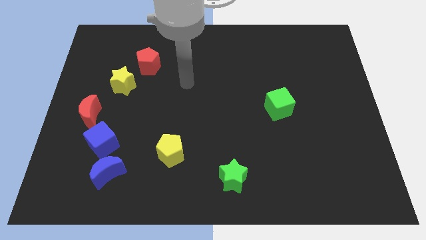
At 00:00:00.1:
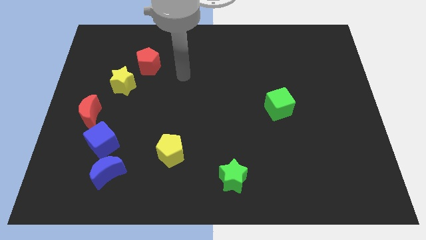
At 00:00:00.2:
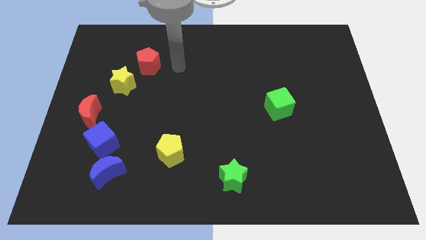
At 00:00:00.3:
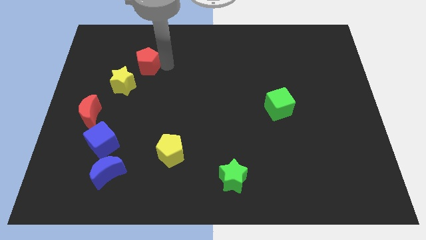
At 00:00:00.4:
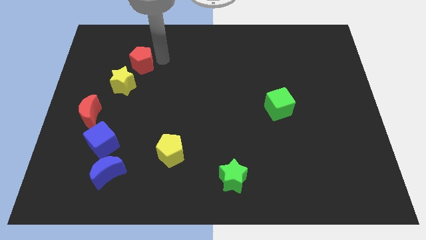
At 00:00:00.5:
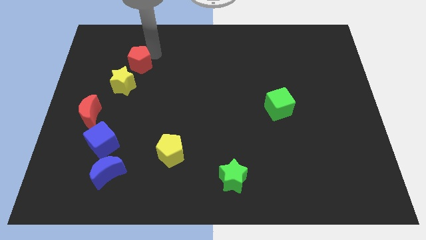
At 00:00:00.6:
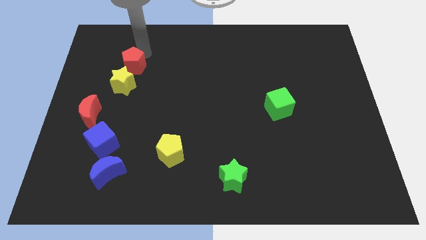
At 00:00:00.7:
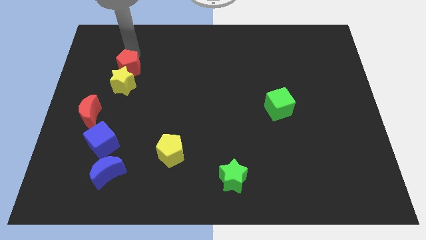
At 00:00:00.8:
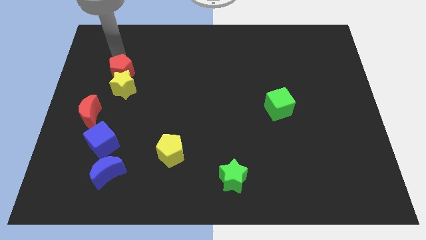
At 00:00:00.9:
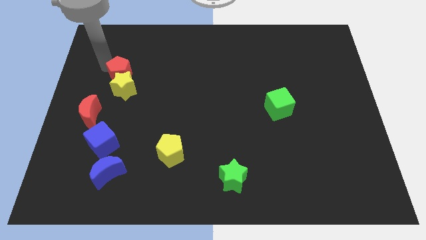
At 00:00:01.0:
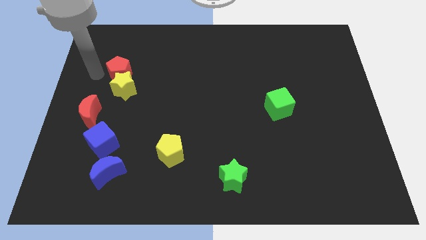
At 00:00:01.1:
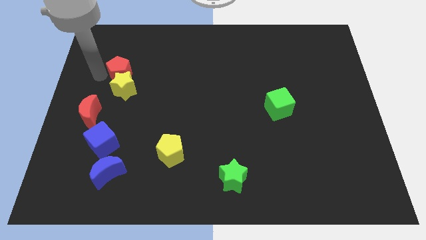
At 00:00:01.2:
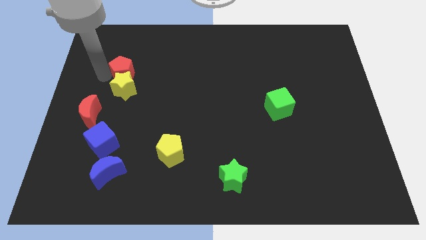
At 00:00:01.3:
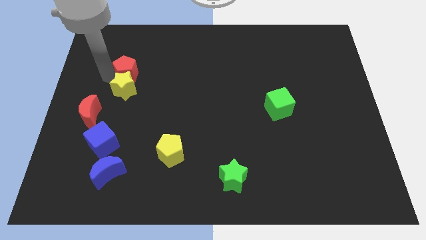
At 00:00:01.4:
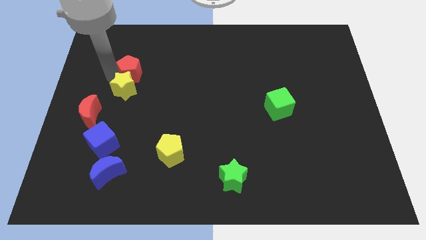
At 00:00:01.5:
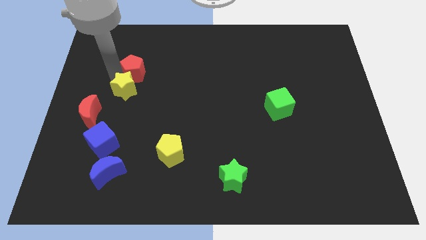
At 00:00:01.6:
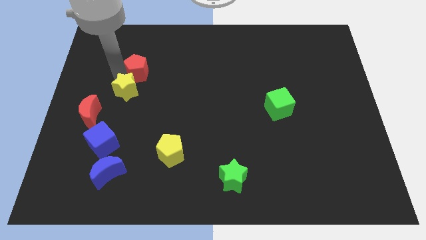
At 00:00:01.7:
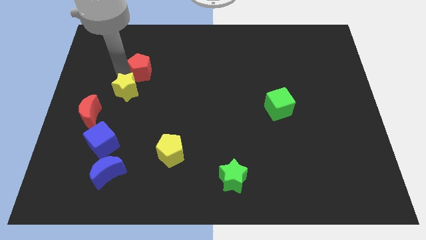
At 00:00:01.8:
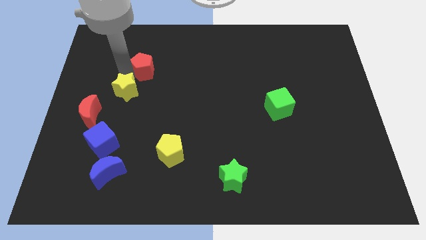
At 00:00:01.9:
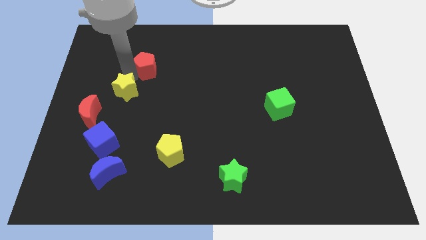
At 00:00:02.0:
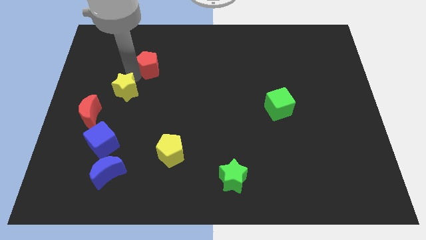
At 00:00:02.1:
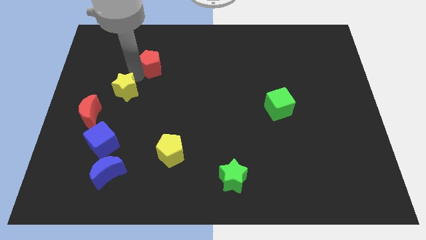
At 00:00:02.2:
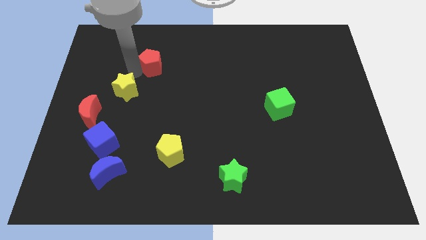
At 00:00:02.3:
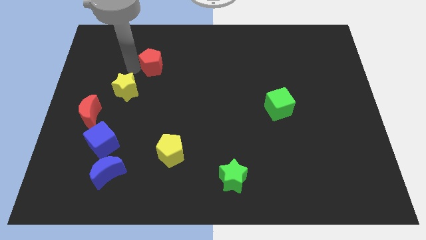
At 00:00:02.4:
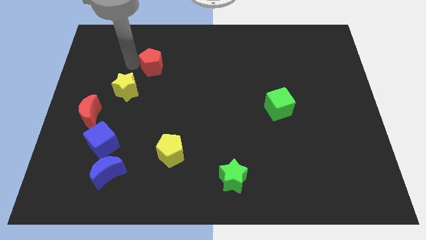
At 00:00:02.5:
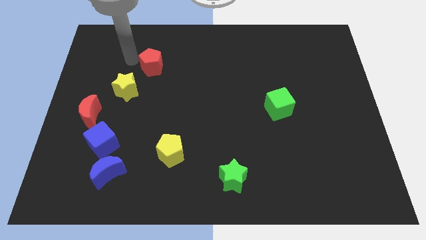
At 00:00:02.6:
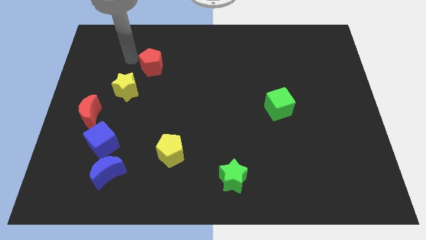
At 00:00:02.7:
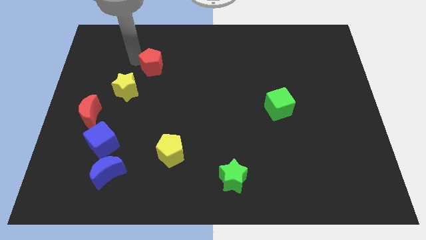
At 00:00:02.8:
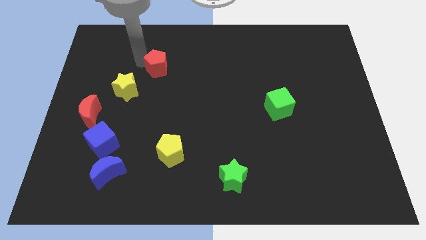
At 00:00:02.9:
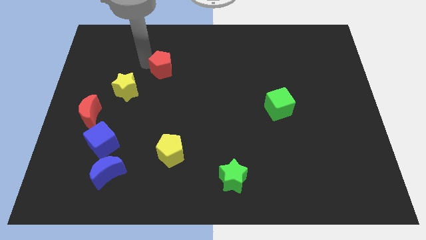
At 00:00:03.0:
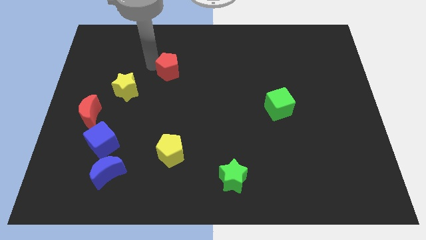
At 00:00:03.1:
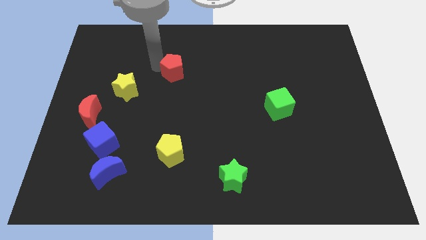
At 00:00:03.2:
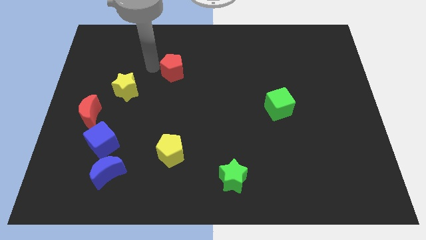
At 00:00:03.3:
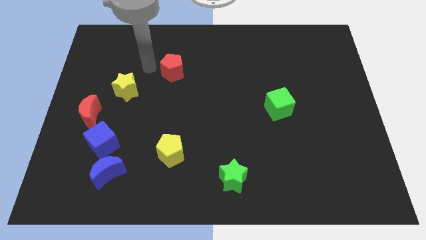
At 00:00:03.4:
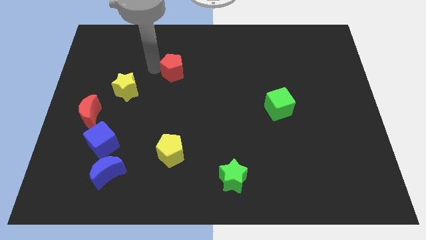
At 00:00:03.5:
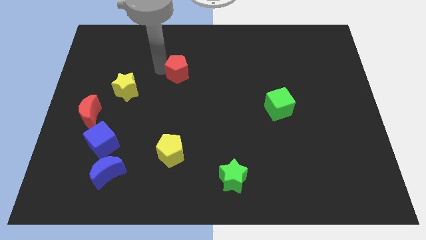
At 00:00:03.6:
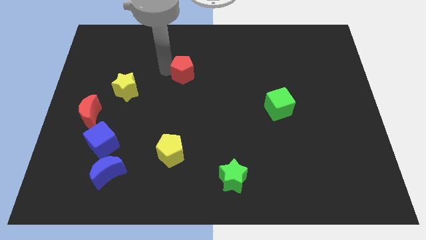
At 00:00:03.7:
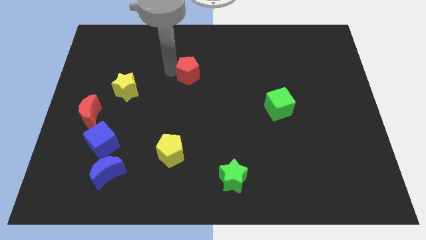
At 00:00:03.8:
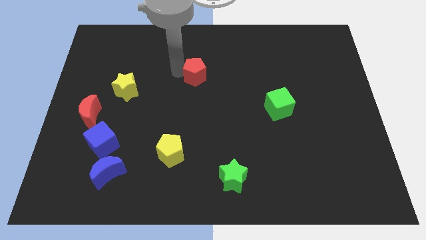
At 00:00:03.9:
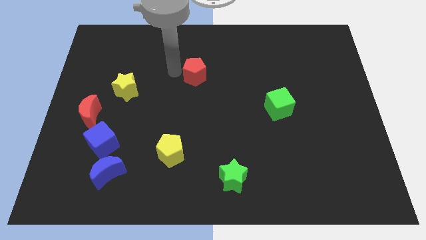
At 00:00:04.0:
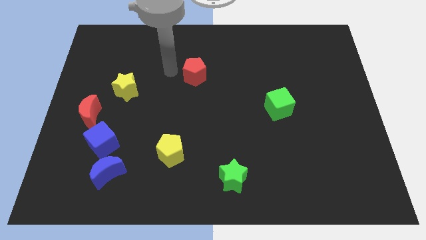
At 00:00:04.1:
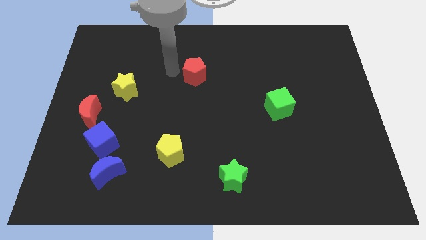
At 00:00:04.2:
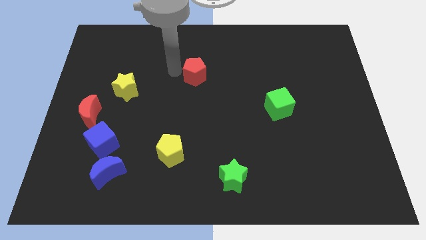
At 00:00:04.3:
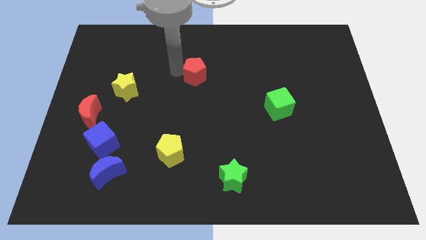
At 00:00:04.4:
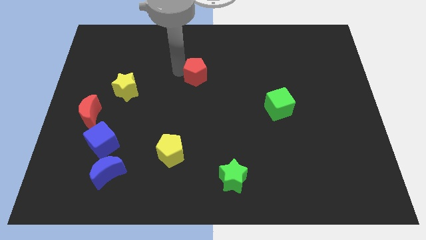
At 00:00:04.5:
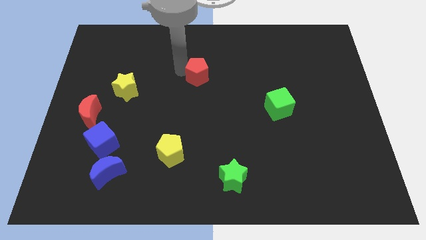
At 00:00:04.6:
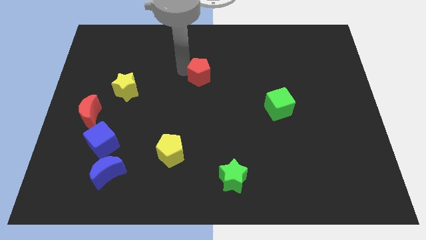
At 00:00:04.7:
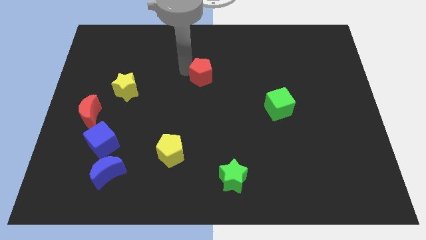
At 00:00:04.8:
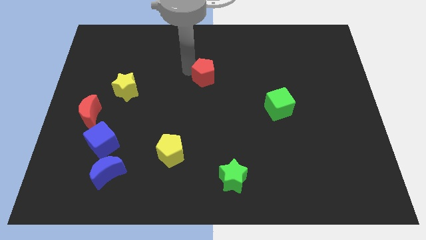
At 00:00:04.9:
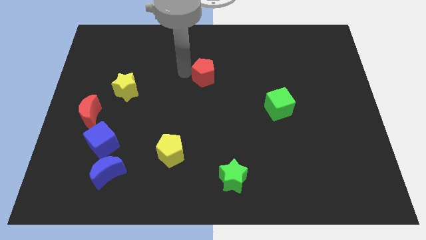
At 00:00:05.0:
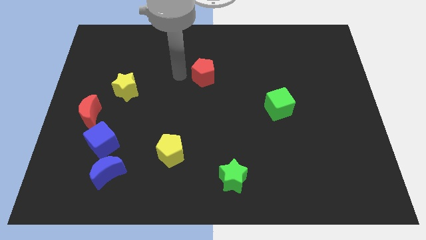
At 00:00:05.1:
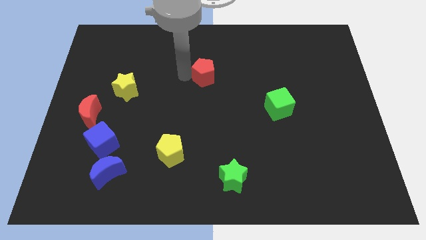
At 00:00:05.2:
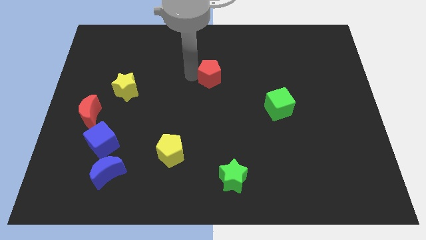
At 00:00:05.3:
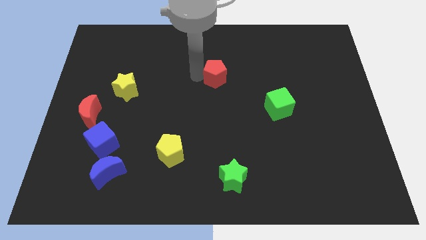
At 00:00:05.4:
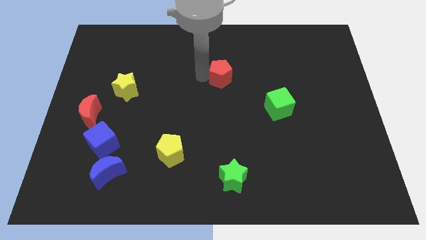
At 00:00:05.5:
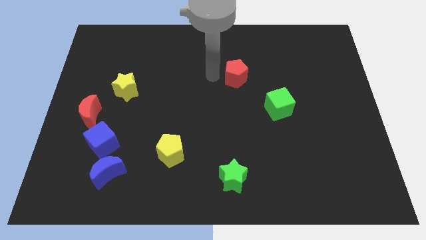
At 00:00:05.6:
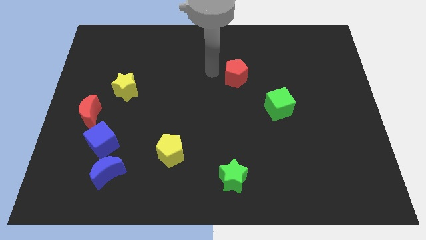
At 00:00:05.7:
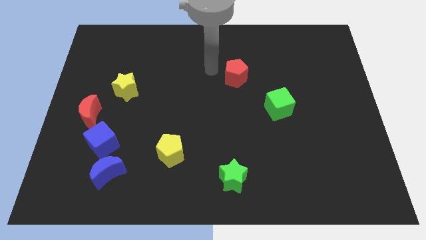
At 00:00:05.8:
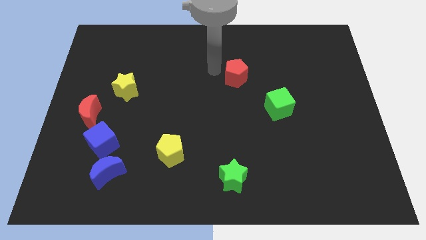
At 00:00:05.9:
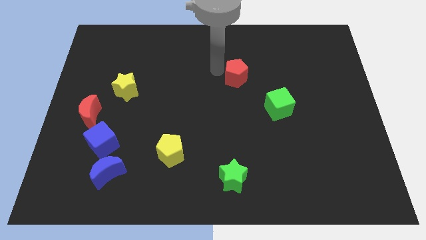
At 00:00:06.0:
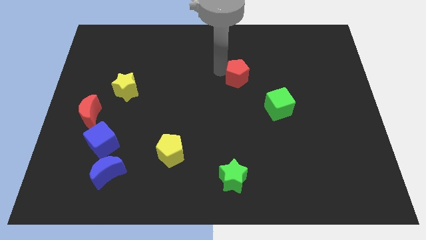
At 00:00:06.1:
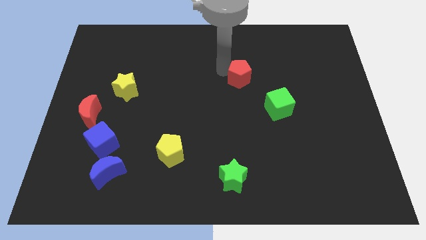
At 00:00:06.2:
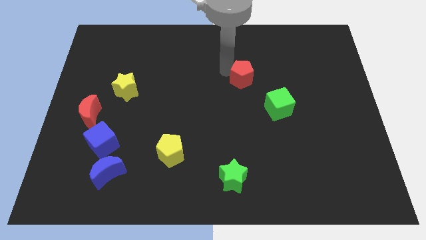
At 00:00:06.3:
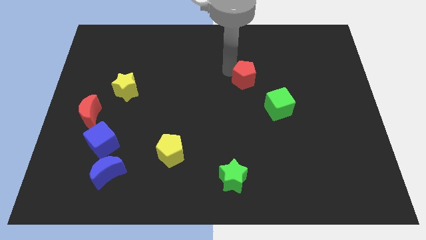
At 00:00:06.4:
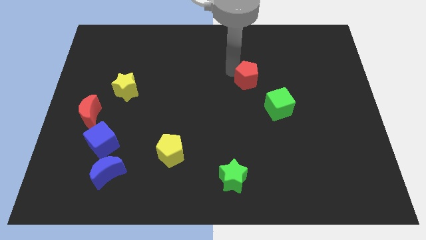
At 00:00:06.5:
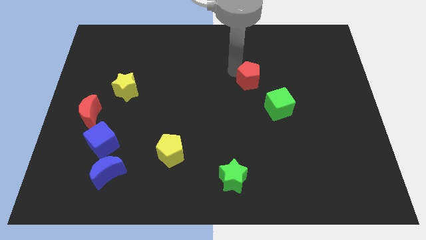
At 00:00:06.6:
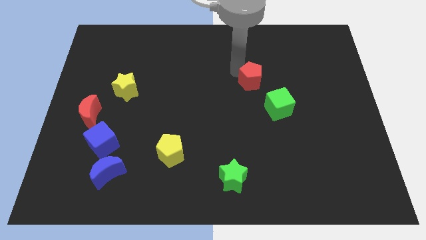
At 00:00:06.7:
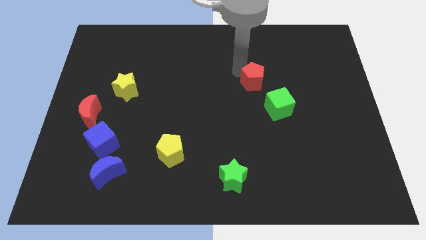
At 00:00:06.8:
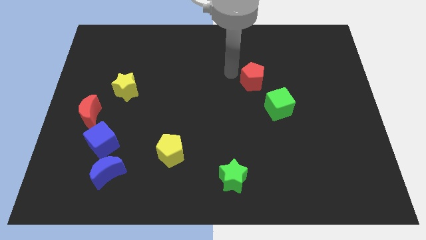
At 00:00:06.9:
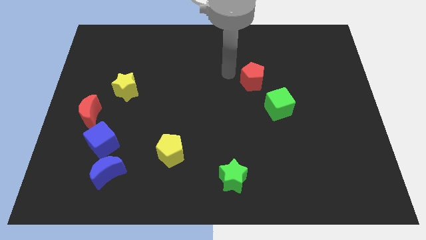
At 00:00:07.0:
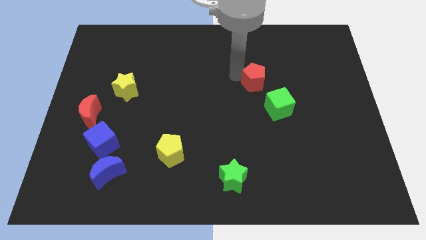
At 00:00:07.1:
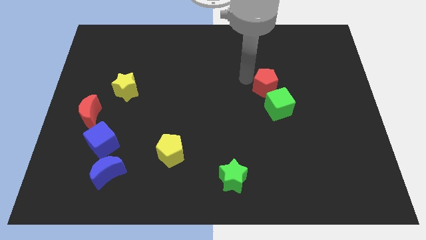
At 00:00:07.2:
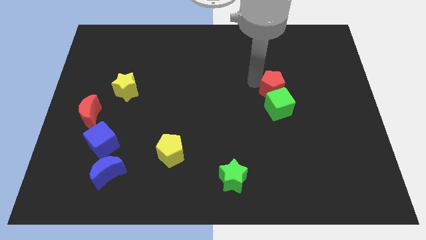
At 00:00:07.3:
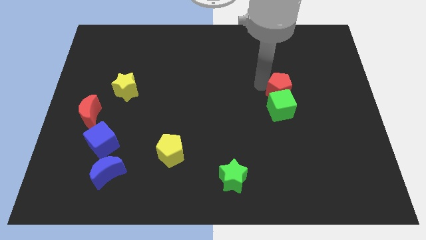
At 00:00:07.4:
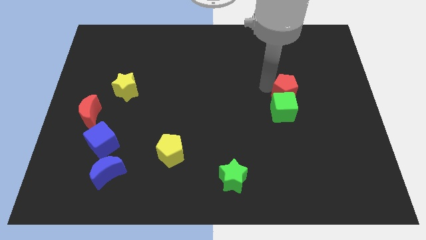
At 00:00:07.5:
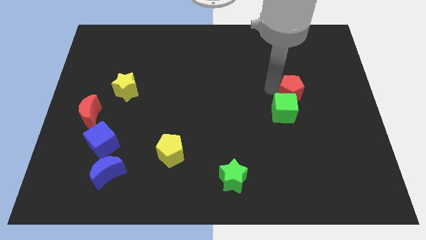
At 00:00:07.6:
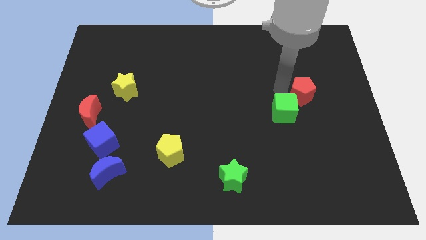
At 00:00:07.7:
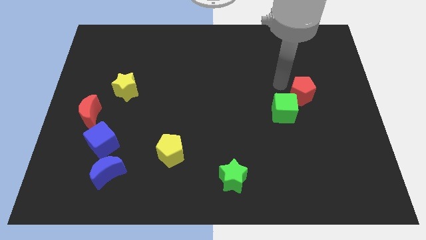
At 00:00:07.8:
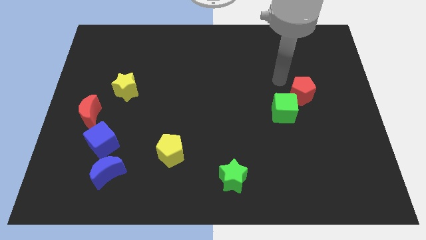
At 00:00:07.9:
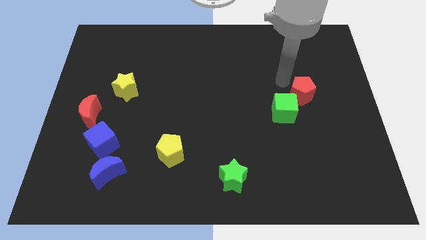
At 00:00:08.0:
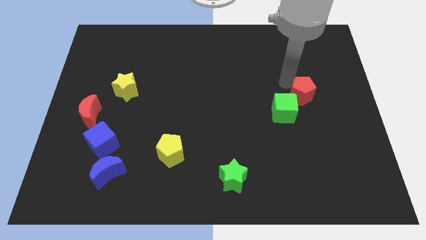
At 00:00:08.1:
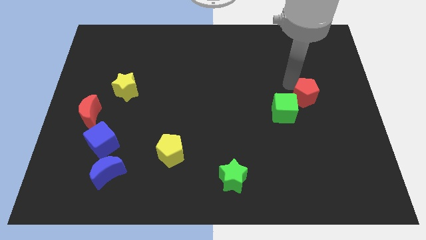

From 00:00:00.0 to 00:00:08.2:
slide the red pentagon to the right of the green cube
